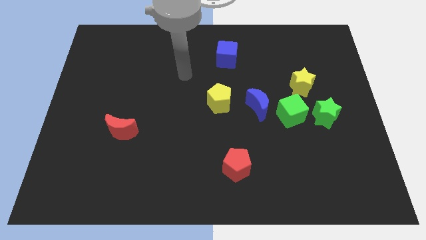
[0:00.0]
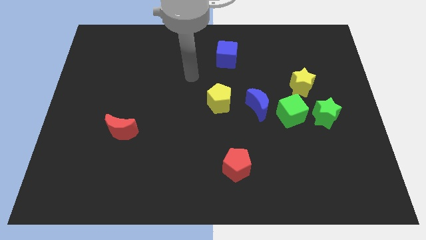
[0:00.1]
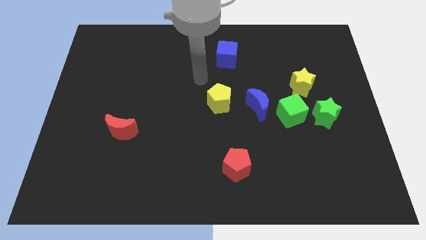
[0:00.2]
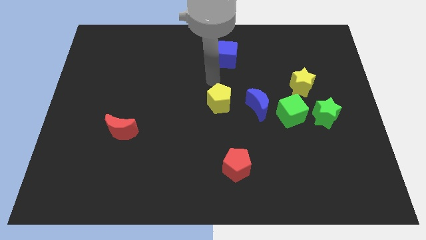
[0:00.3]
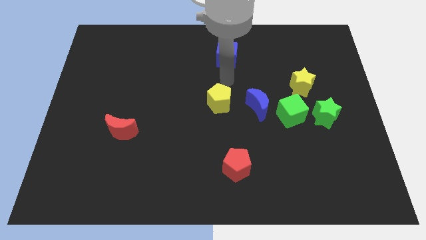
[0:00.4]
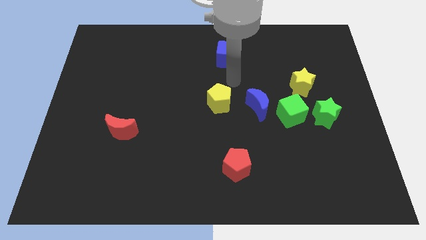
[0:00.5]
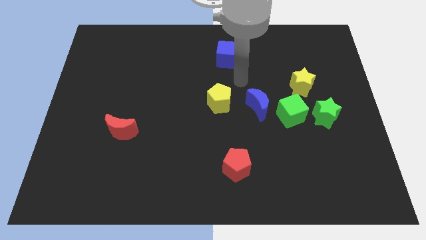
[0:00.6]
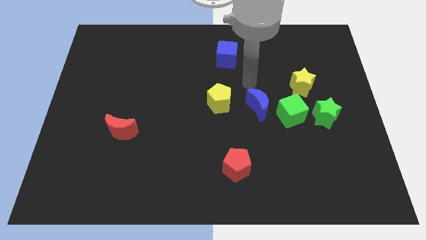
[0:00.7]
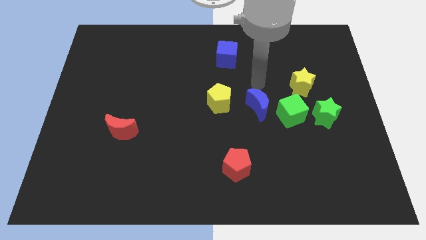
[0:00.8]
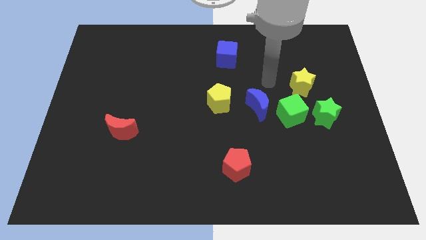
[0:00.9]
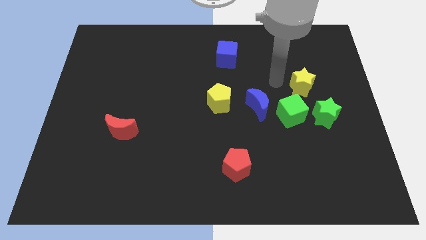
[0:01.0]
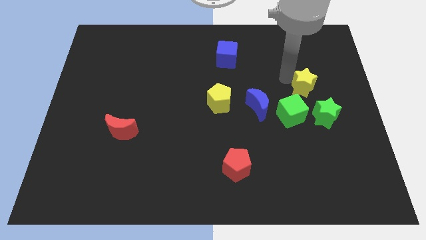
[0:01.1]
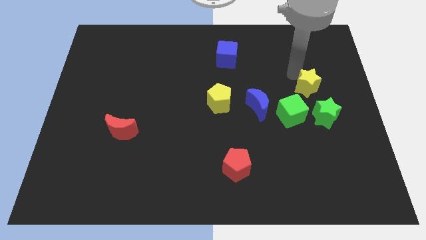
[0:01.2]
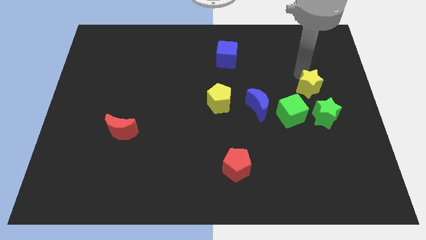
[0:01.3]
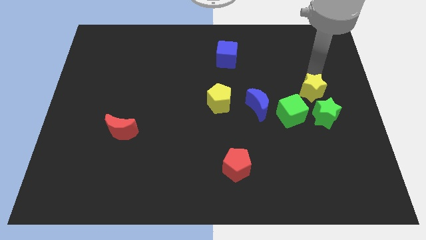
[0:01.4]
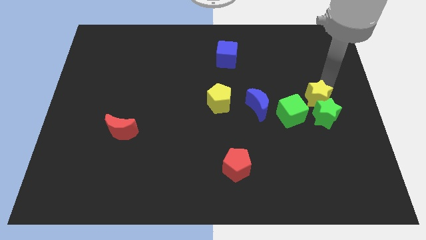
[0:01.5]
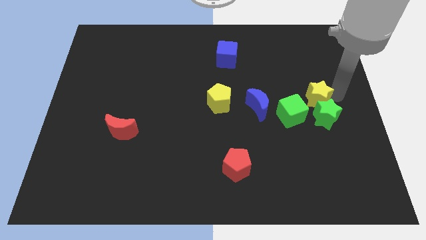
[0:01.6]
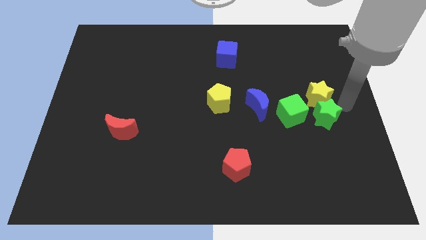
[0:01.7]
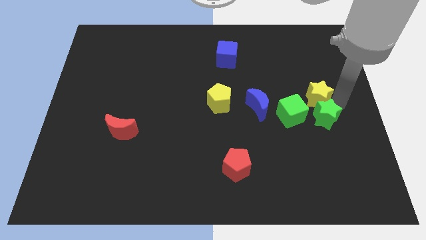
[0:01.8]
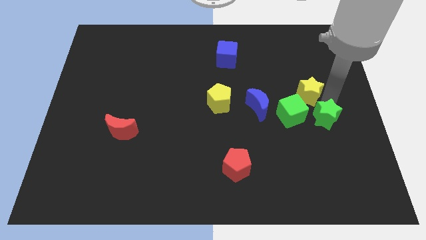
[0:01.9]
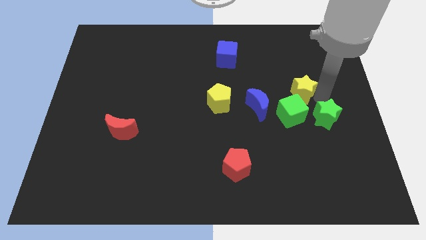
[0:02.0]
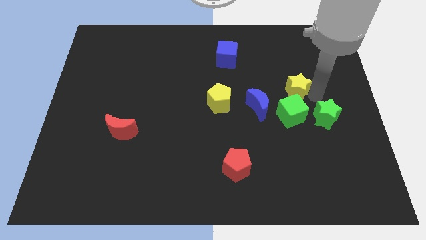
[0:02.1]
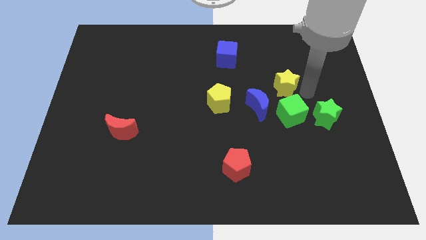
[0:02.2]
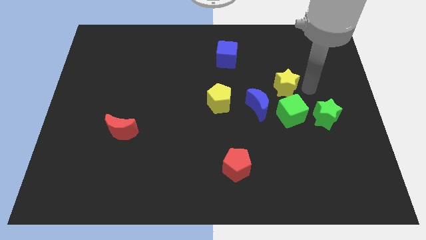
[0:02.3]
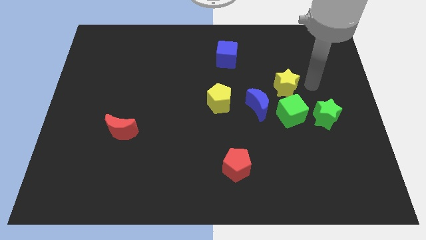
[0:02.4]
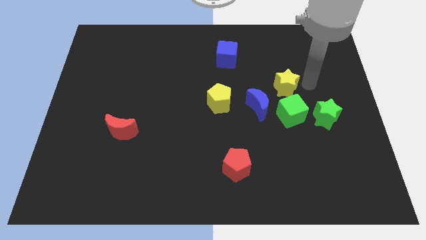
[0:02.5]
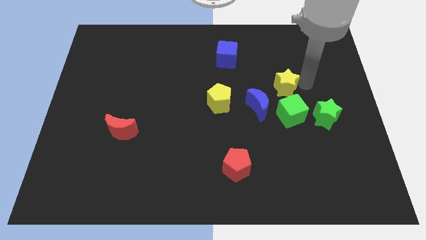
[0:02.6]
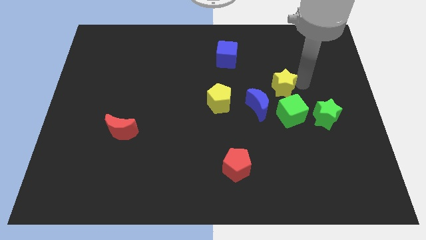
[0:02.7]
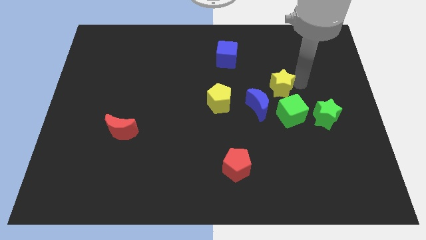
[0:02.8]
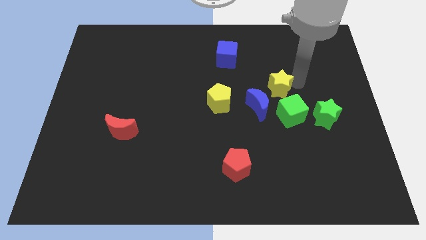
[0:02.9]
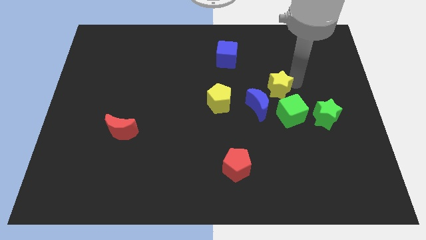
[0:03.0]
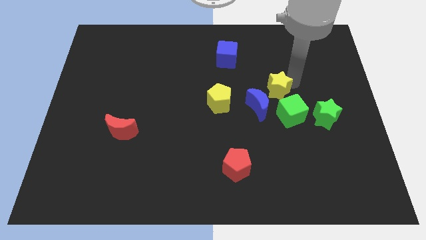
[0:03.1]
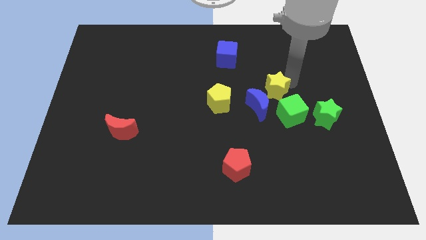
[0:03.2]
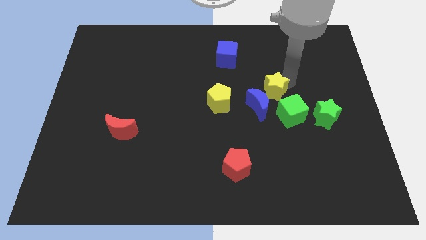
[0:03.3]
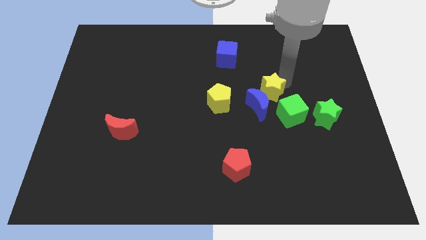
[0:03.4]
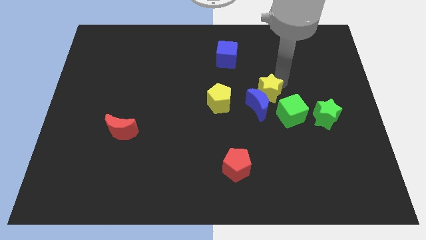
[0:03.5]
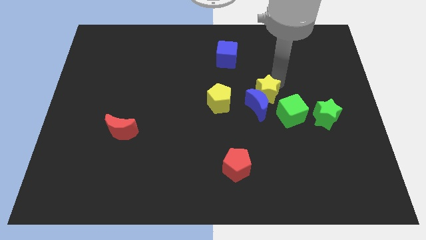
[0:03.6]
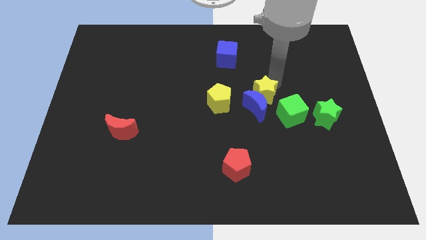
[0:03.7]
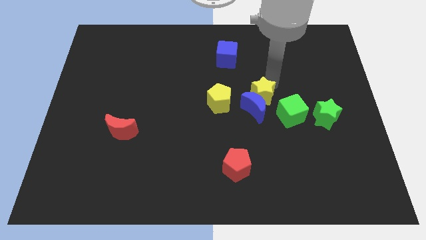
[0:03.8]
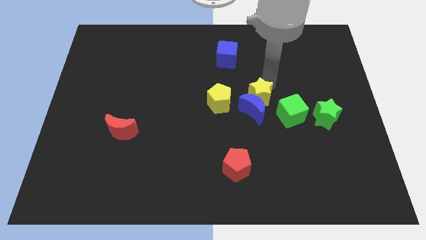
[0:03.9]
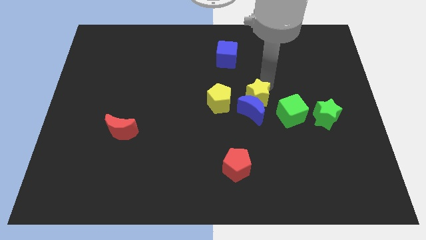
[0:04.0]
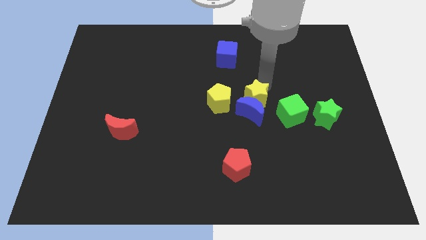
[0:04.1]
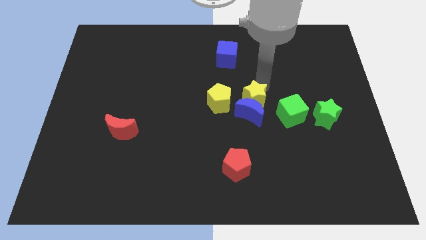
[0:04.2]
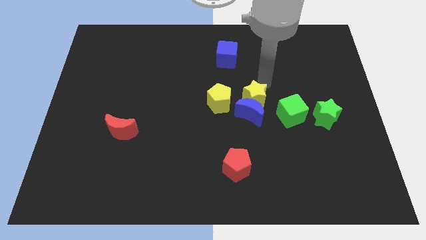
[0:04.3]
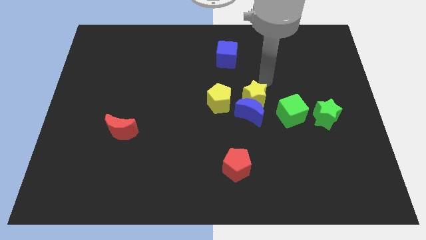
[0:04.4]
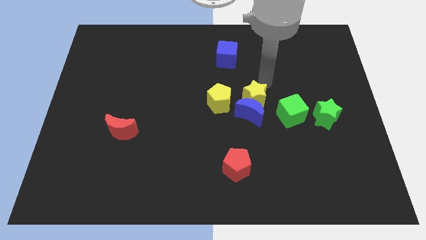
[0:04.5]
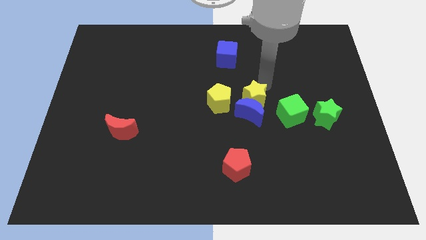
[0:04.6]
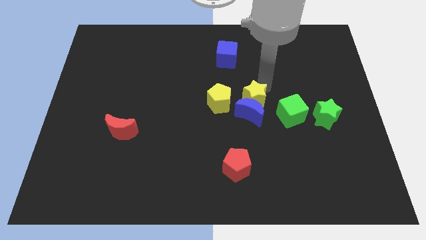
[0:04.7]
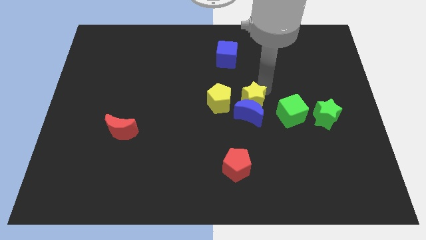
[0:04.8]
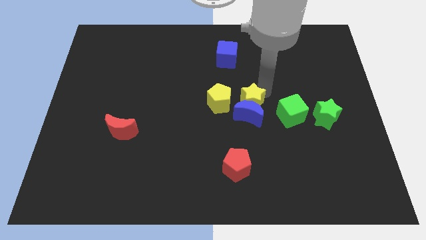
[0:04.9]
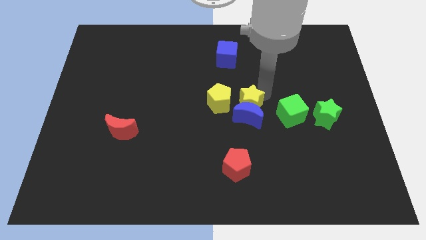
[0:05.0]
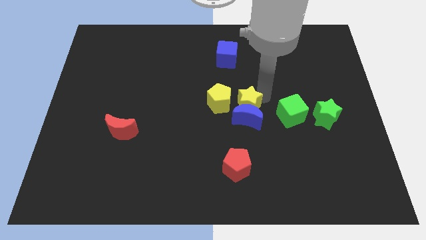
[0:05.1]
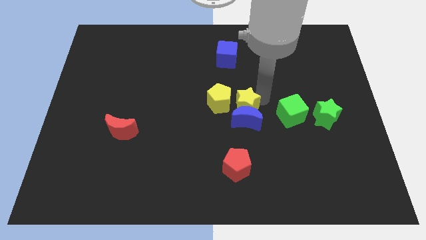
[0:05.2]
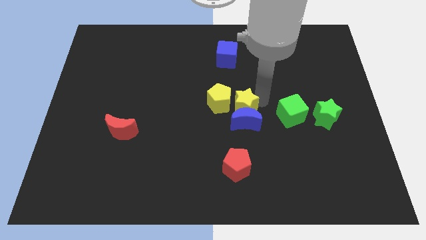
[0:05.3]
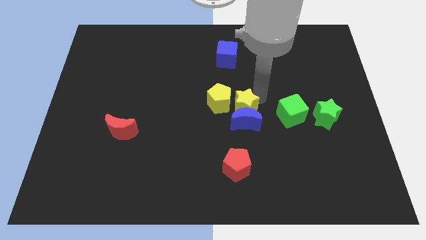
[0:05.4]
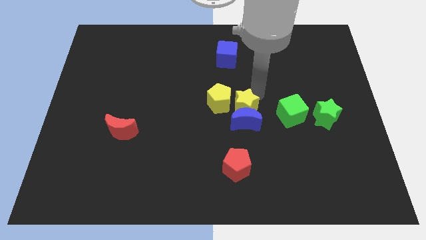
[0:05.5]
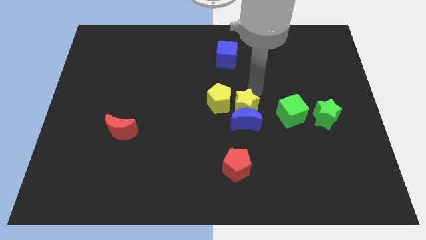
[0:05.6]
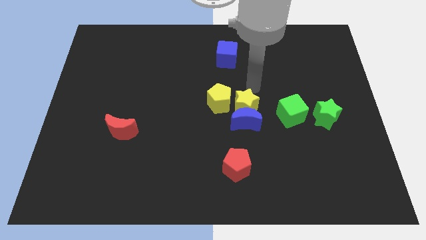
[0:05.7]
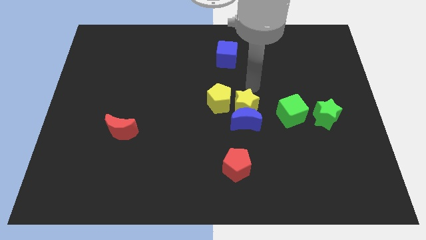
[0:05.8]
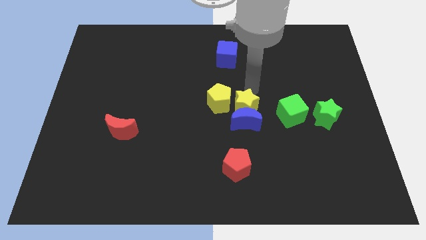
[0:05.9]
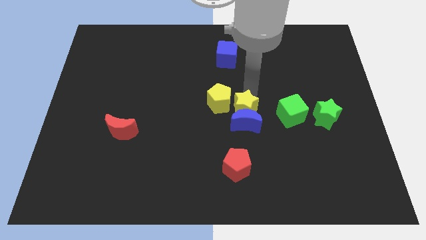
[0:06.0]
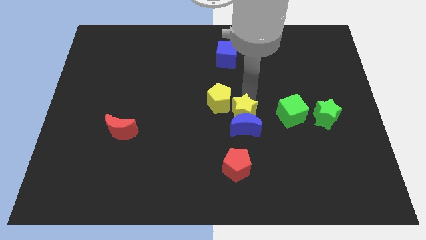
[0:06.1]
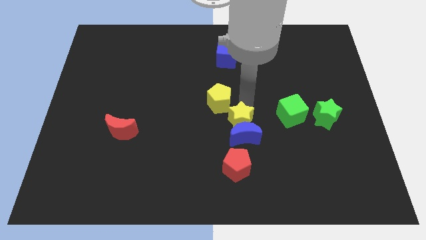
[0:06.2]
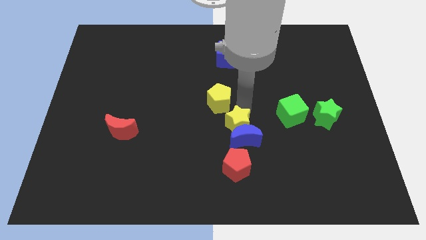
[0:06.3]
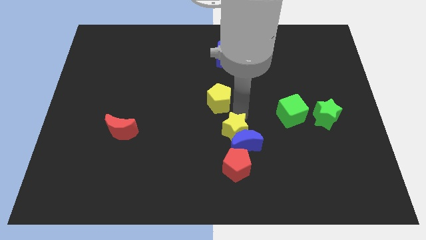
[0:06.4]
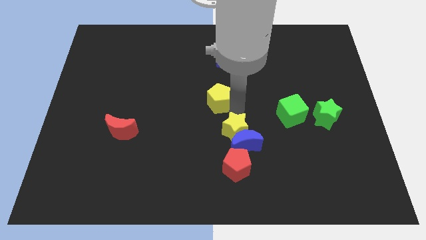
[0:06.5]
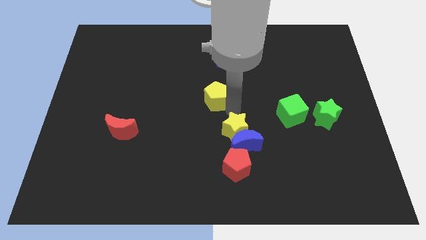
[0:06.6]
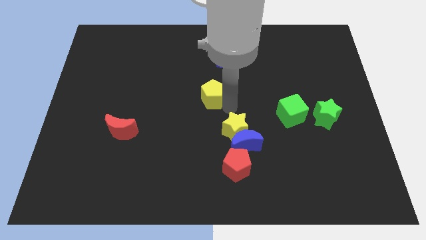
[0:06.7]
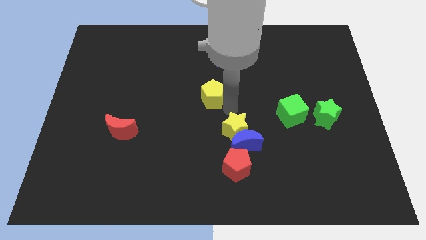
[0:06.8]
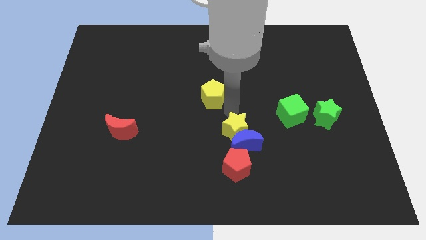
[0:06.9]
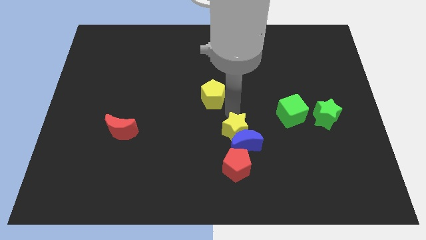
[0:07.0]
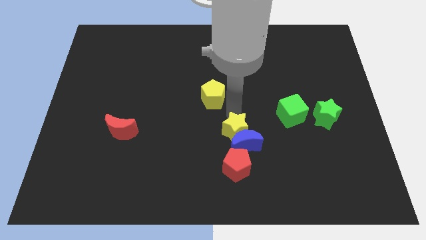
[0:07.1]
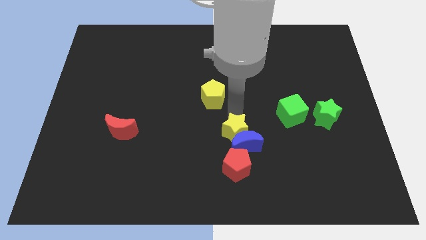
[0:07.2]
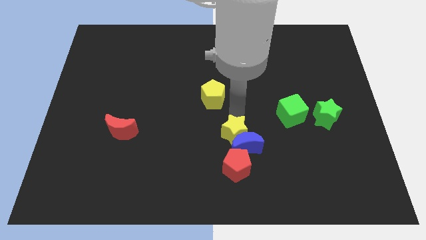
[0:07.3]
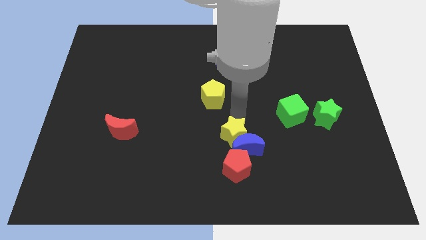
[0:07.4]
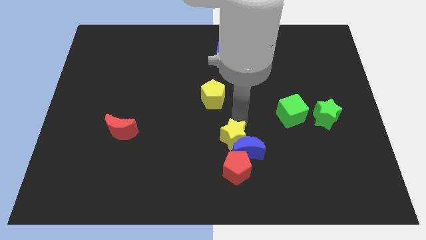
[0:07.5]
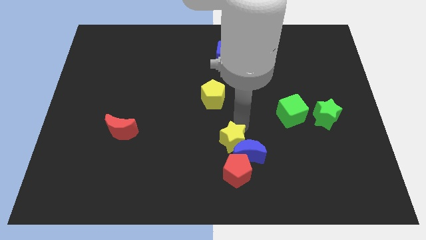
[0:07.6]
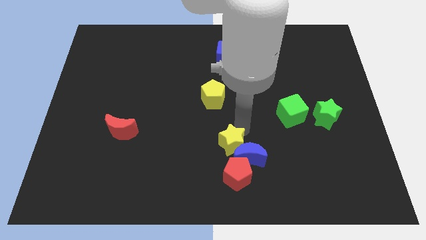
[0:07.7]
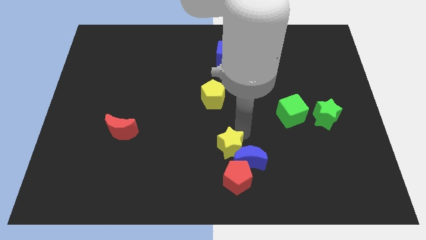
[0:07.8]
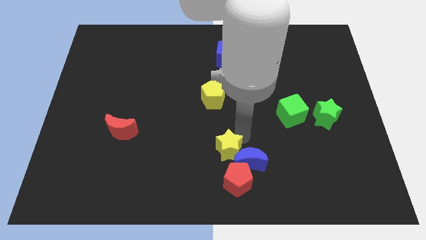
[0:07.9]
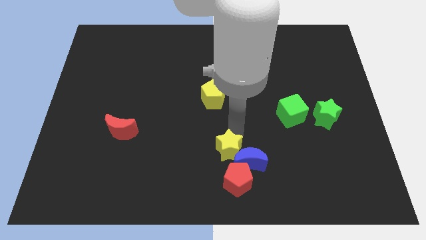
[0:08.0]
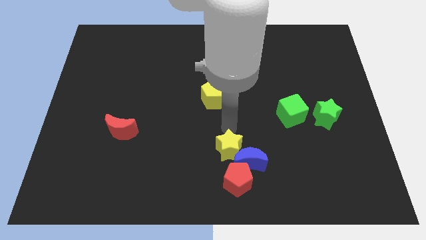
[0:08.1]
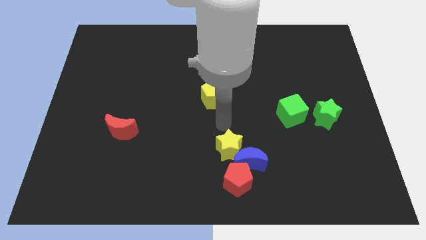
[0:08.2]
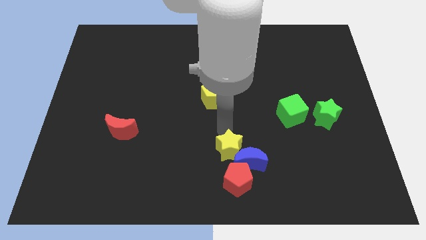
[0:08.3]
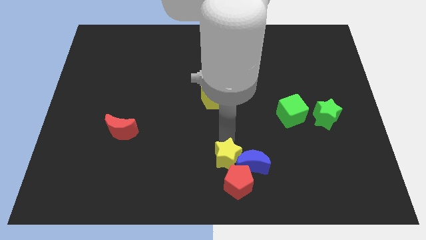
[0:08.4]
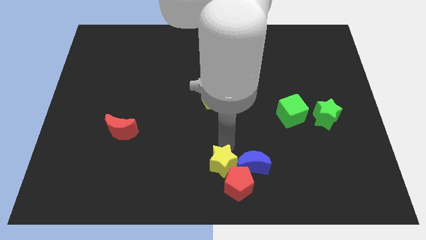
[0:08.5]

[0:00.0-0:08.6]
move the yellow star next to the red pentagon
